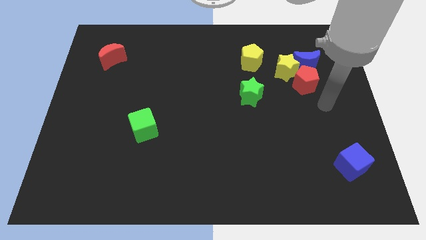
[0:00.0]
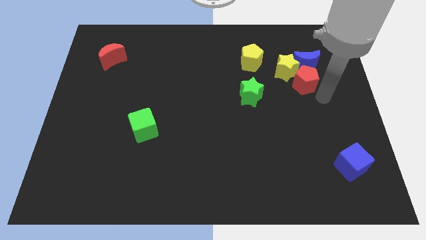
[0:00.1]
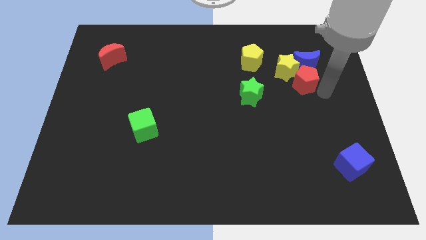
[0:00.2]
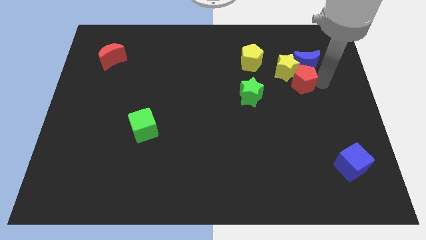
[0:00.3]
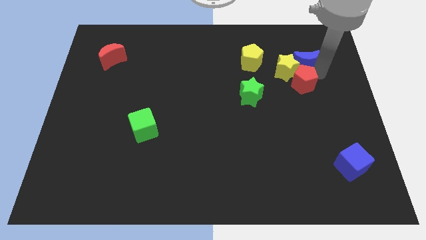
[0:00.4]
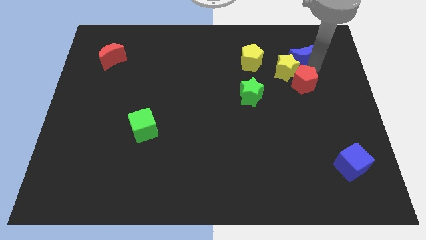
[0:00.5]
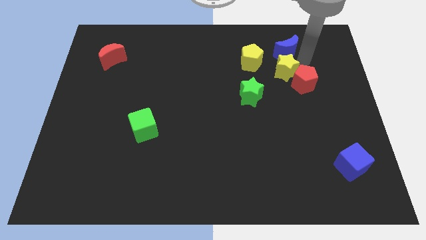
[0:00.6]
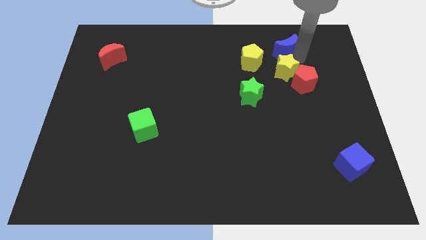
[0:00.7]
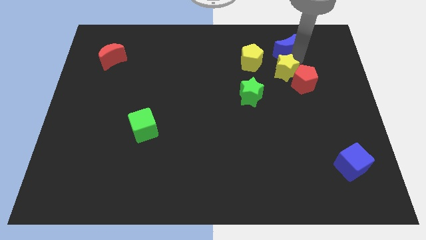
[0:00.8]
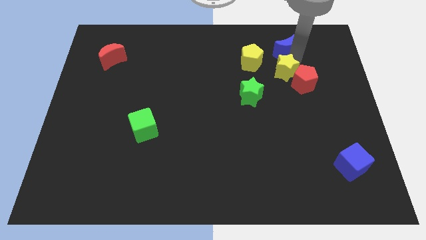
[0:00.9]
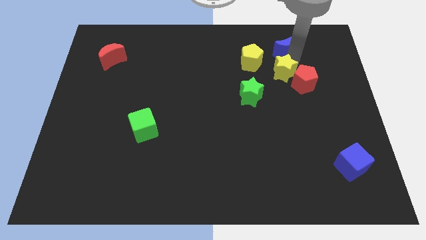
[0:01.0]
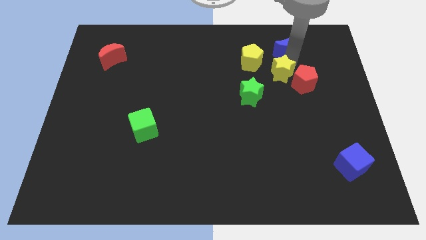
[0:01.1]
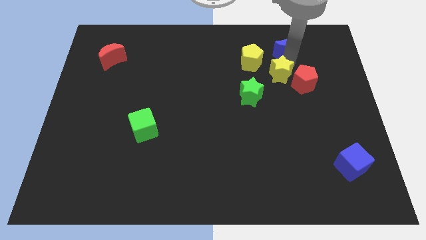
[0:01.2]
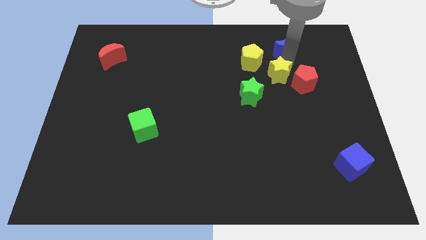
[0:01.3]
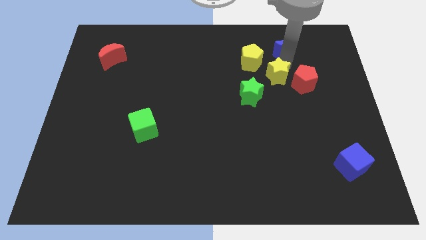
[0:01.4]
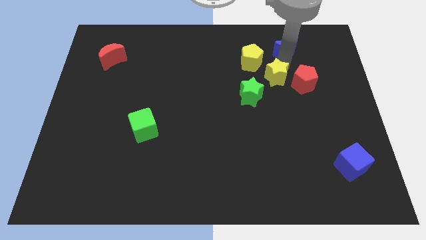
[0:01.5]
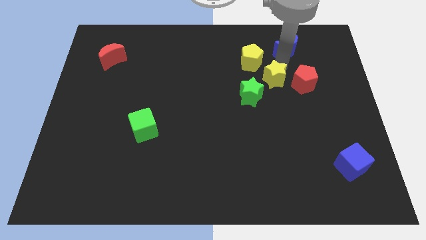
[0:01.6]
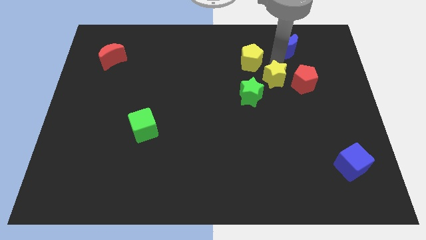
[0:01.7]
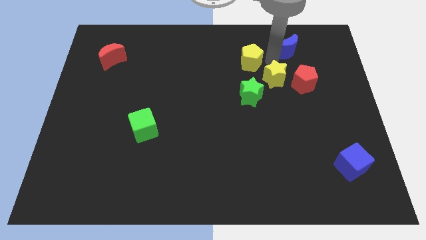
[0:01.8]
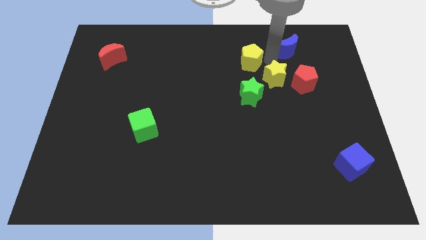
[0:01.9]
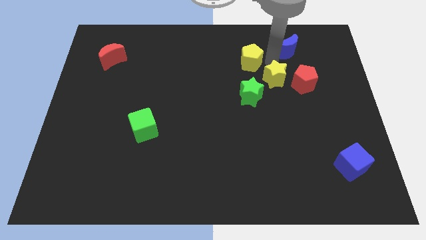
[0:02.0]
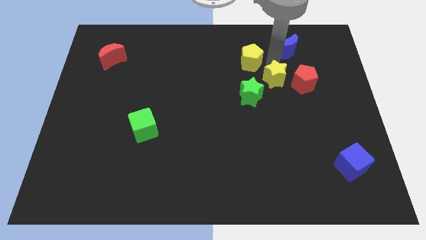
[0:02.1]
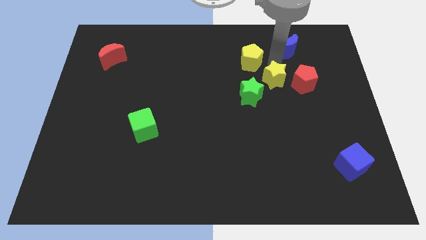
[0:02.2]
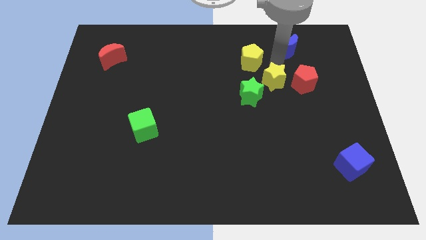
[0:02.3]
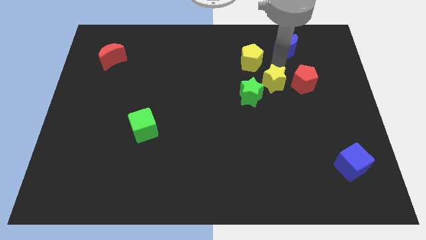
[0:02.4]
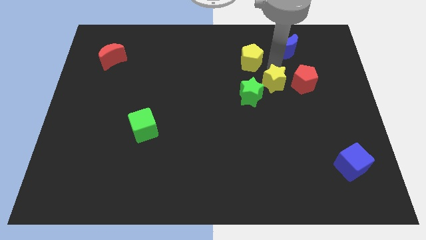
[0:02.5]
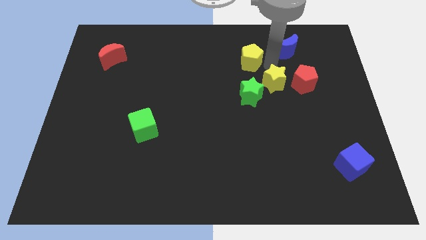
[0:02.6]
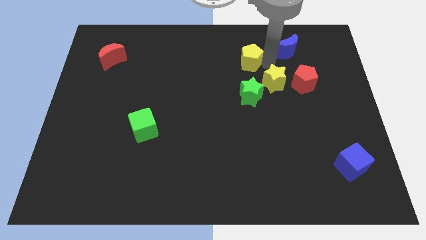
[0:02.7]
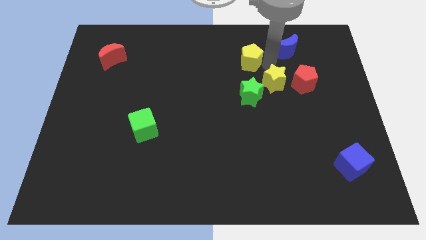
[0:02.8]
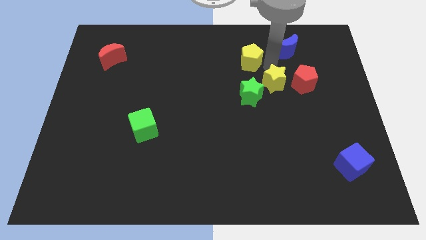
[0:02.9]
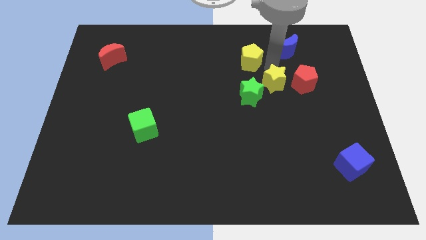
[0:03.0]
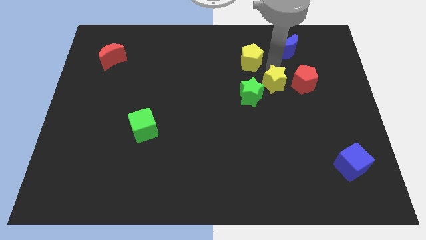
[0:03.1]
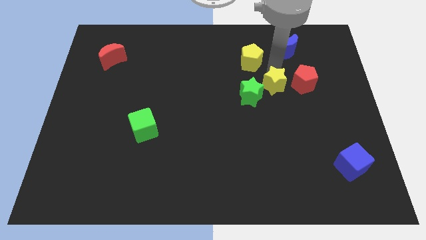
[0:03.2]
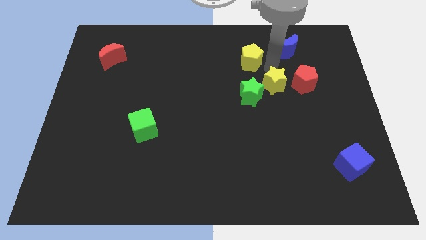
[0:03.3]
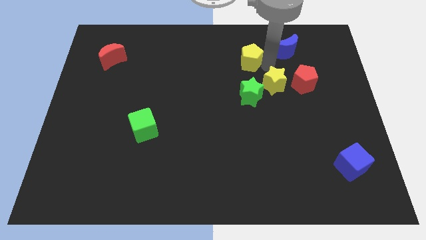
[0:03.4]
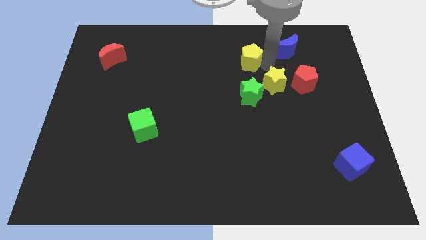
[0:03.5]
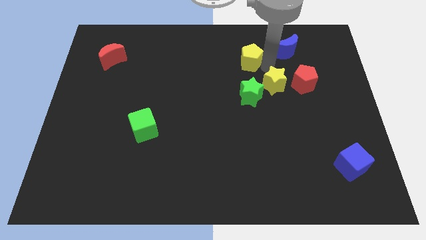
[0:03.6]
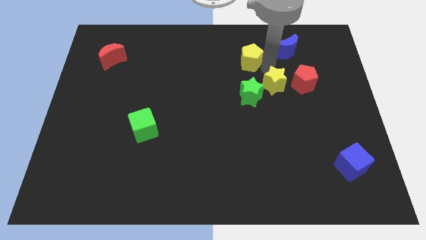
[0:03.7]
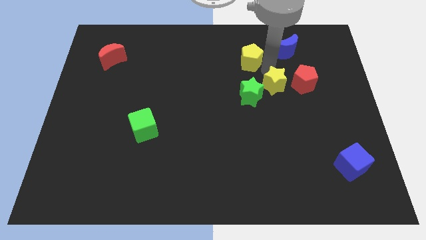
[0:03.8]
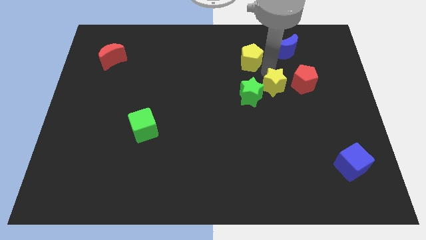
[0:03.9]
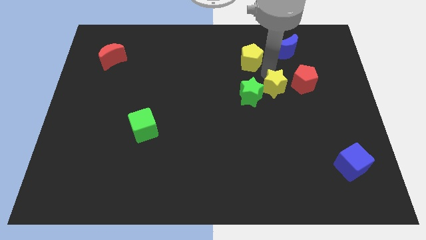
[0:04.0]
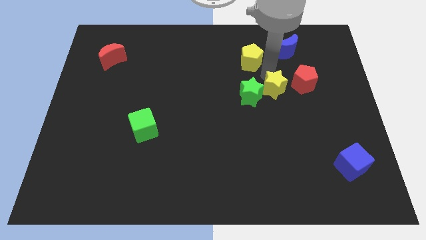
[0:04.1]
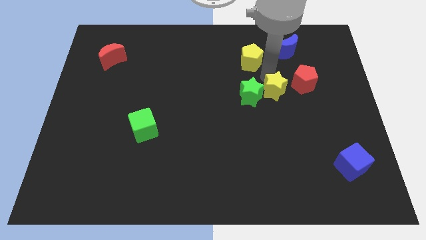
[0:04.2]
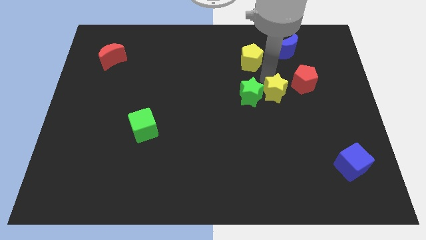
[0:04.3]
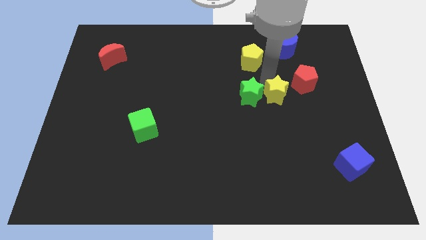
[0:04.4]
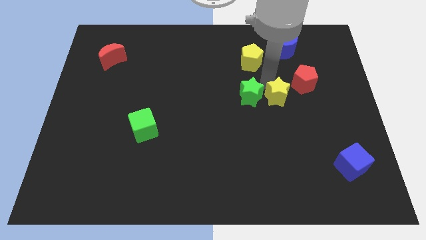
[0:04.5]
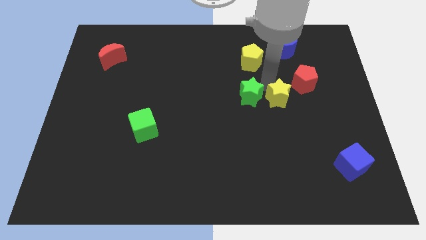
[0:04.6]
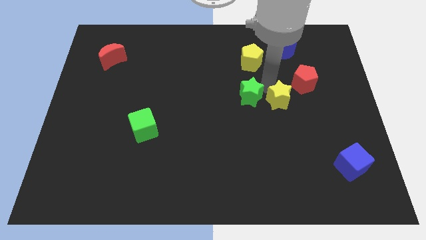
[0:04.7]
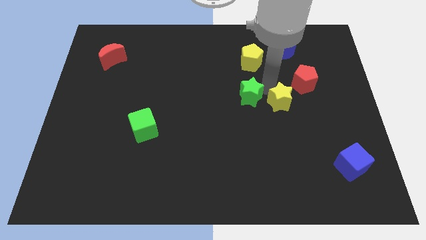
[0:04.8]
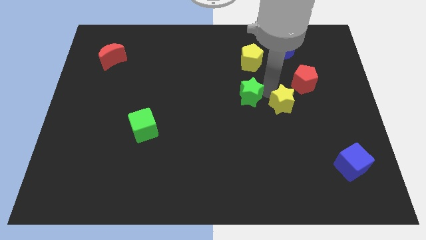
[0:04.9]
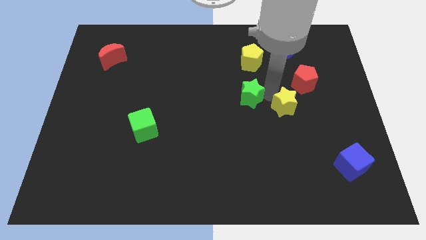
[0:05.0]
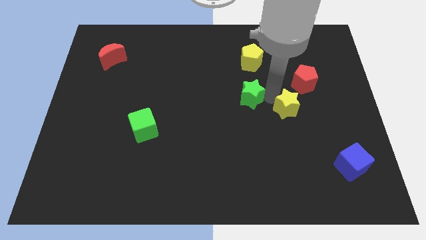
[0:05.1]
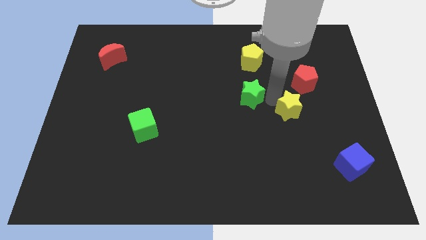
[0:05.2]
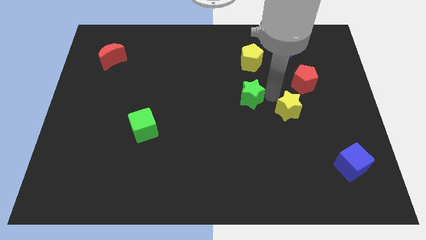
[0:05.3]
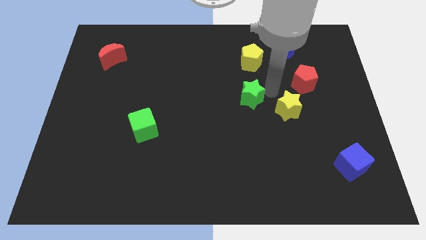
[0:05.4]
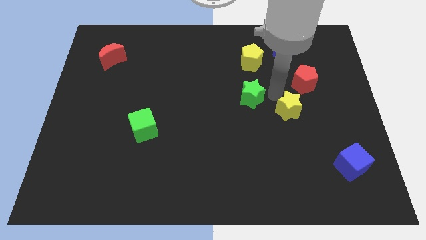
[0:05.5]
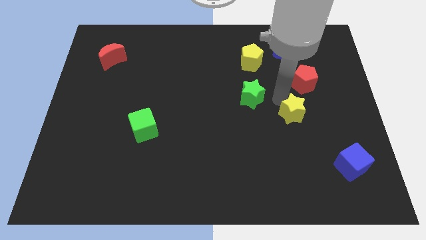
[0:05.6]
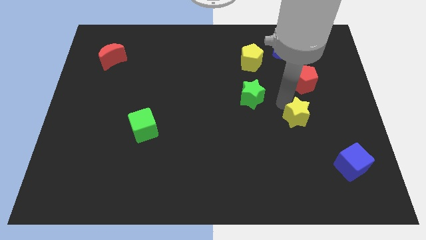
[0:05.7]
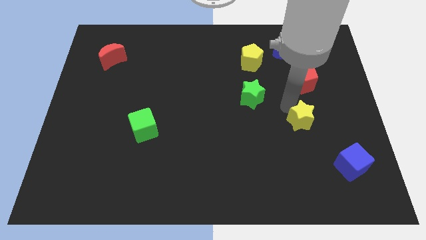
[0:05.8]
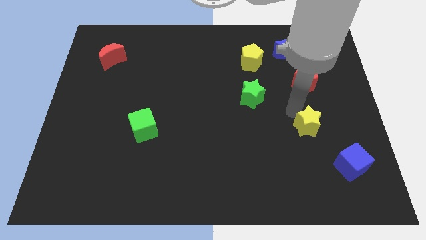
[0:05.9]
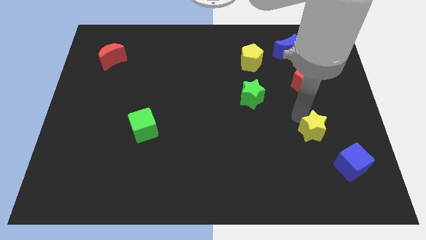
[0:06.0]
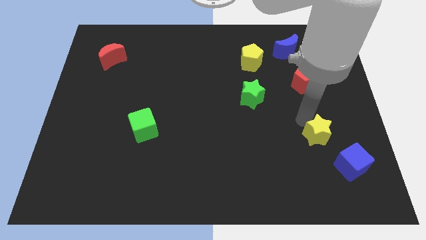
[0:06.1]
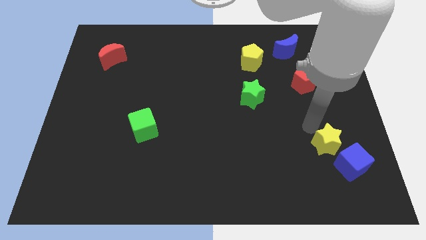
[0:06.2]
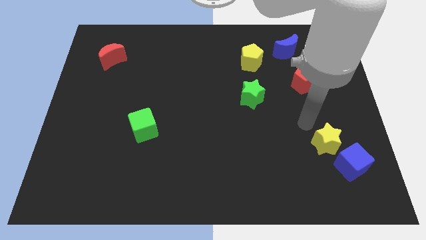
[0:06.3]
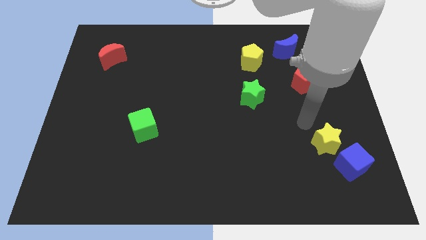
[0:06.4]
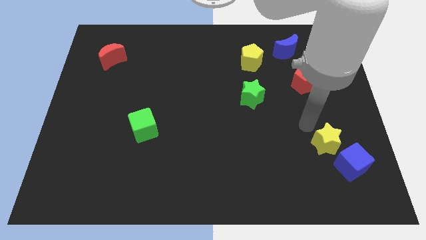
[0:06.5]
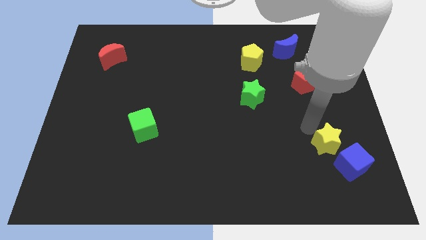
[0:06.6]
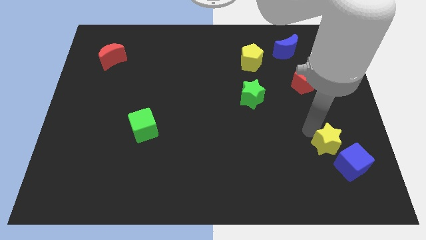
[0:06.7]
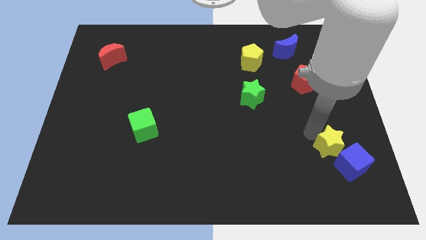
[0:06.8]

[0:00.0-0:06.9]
put the yellow star towards the blue cube

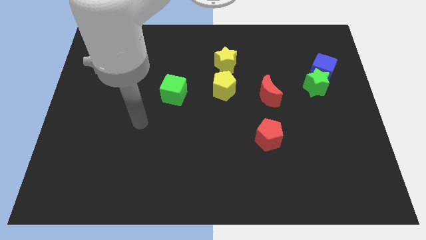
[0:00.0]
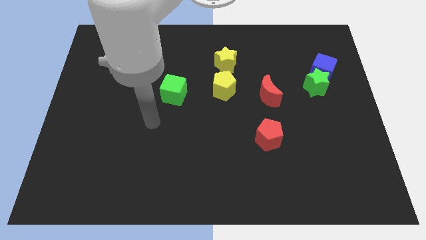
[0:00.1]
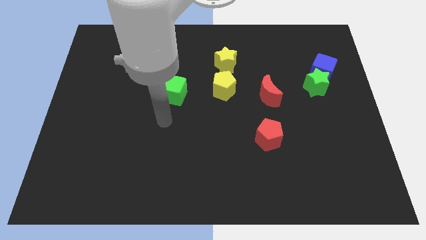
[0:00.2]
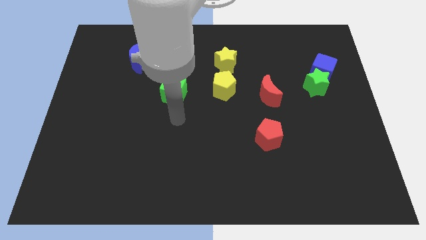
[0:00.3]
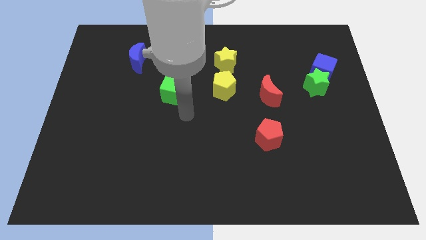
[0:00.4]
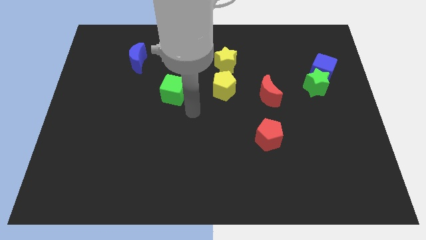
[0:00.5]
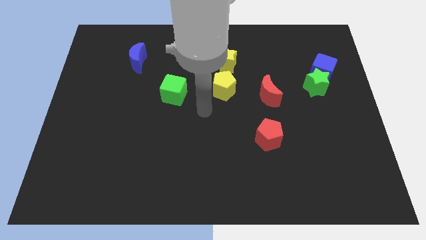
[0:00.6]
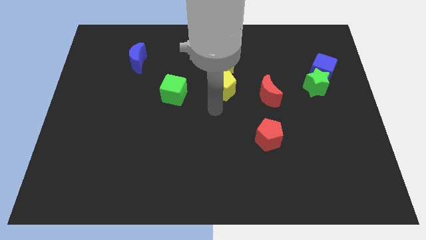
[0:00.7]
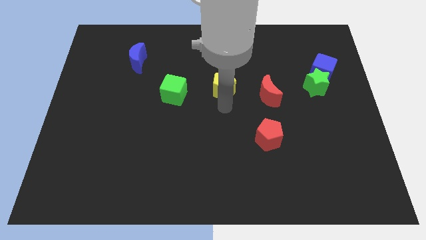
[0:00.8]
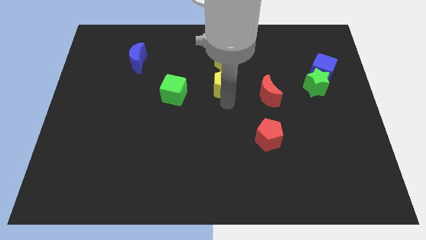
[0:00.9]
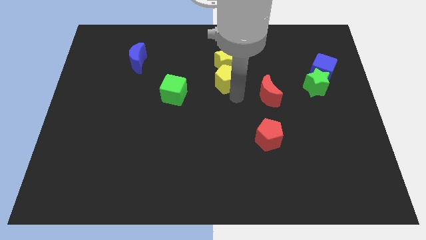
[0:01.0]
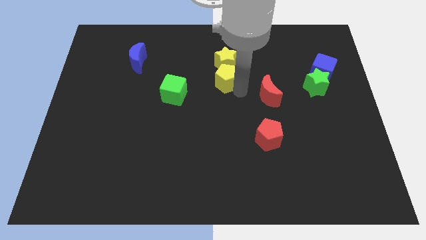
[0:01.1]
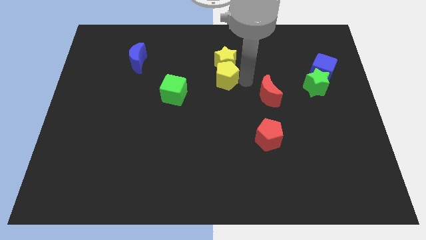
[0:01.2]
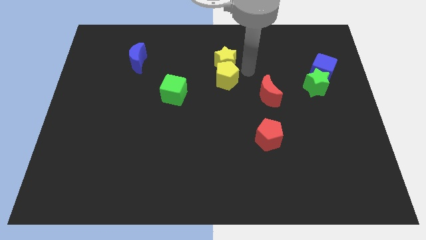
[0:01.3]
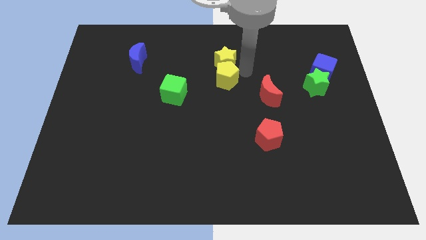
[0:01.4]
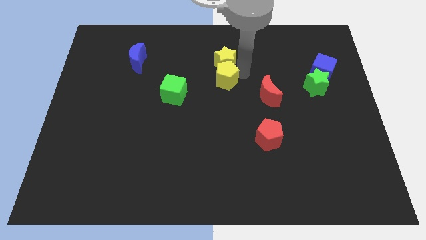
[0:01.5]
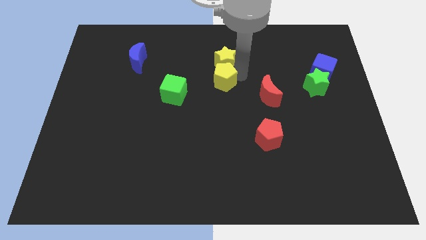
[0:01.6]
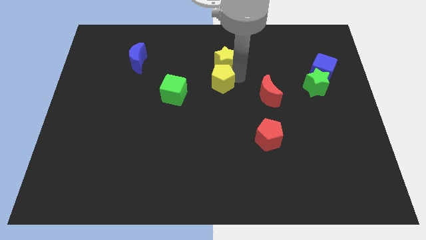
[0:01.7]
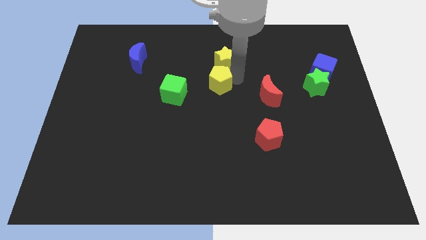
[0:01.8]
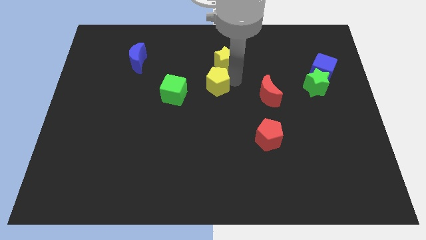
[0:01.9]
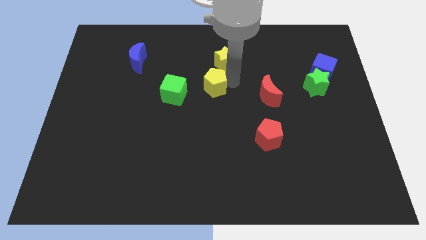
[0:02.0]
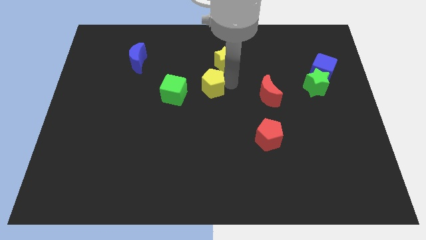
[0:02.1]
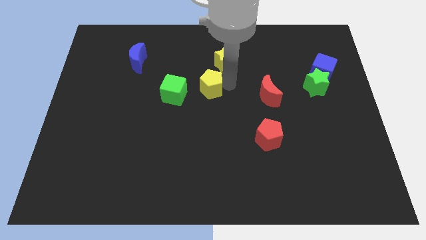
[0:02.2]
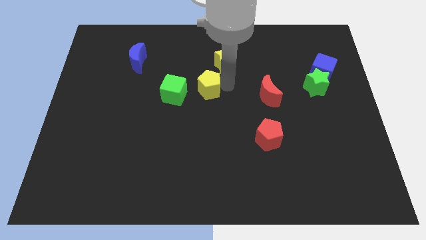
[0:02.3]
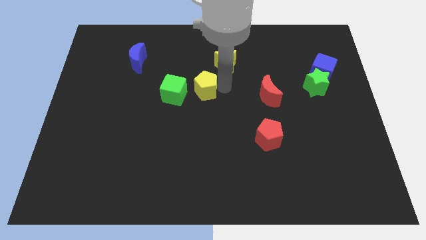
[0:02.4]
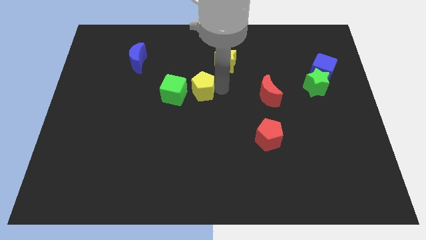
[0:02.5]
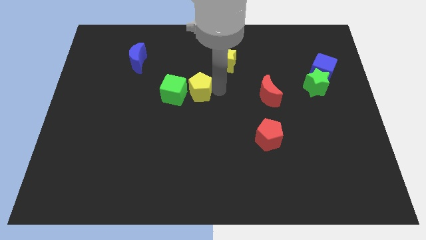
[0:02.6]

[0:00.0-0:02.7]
slide the yellow pentagon towards the green cube
